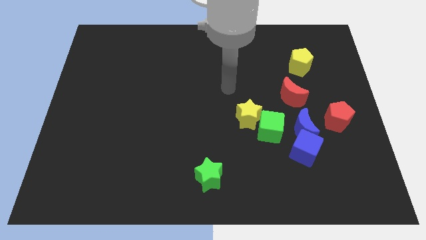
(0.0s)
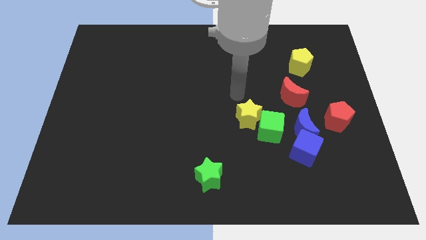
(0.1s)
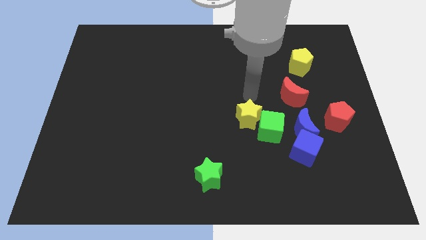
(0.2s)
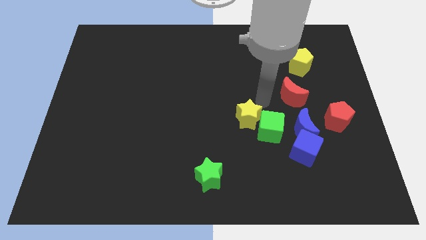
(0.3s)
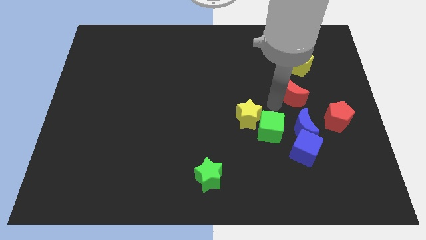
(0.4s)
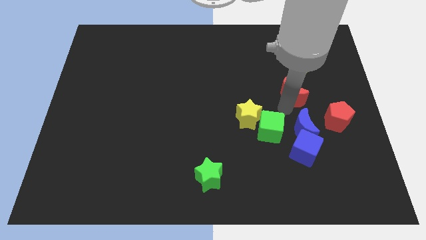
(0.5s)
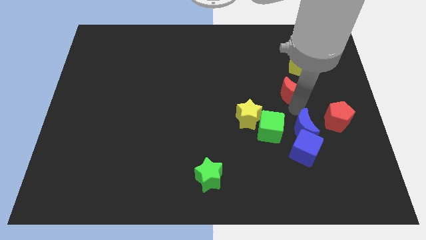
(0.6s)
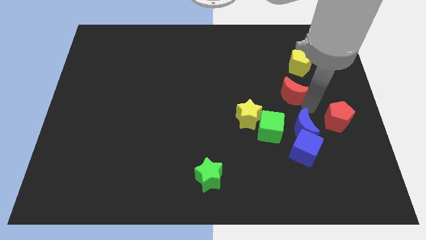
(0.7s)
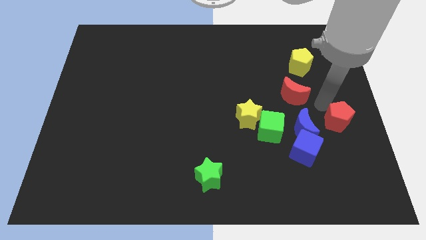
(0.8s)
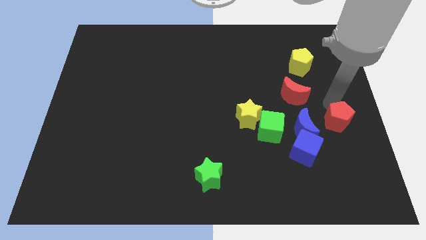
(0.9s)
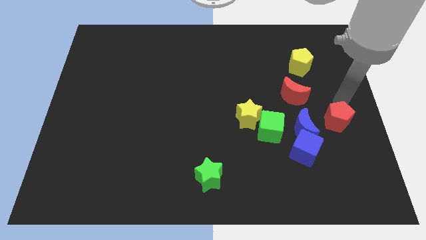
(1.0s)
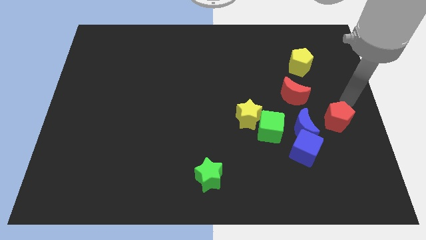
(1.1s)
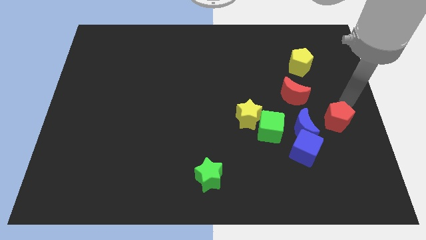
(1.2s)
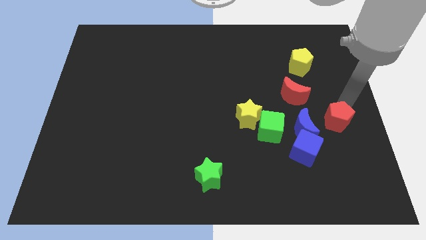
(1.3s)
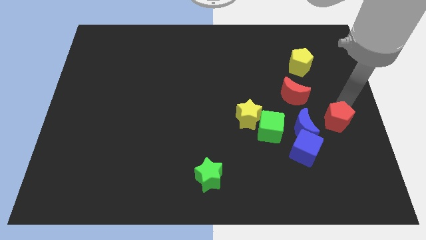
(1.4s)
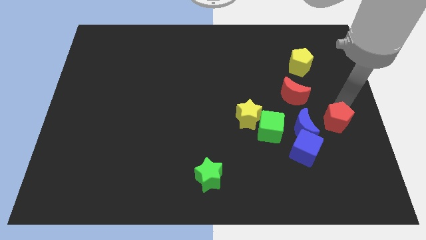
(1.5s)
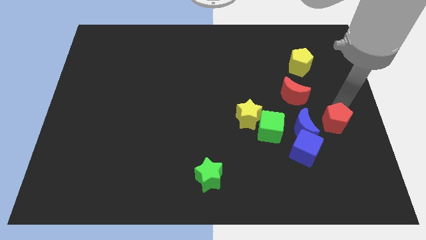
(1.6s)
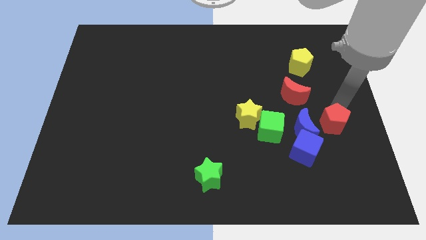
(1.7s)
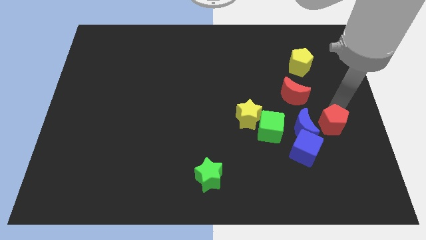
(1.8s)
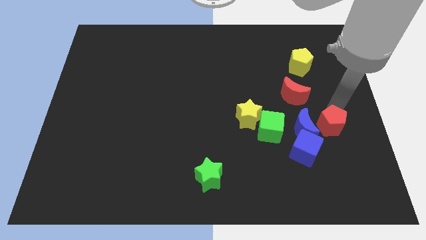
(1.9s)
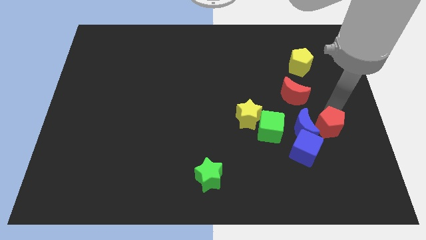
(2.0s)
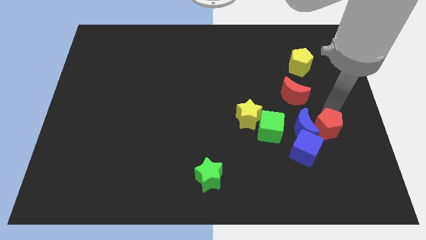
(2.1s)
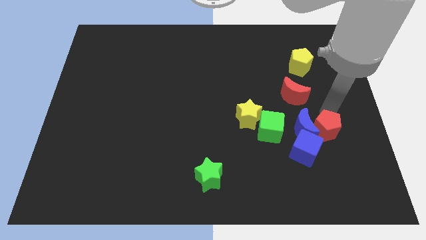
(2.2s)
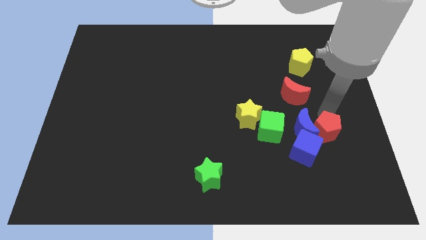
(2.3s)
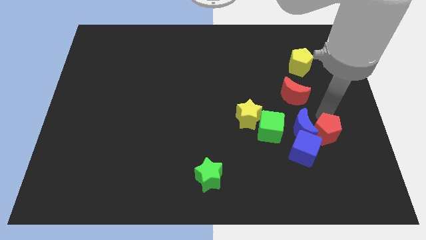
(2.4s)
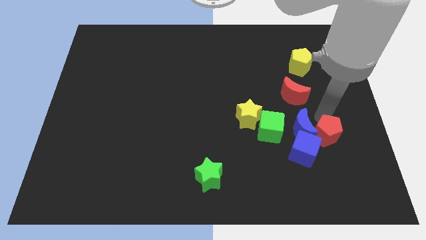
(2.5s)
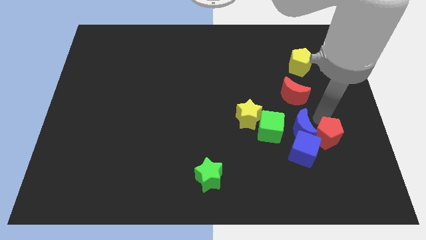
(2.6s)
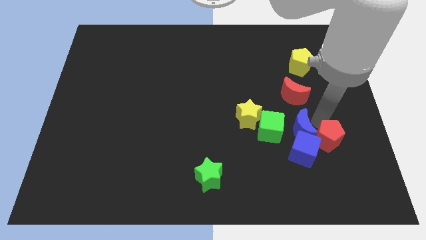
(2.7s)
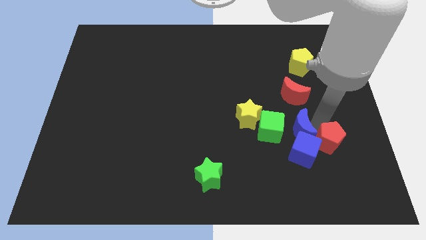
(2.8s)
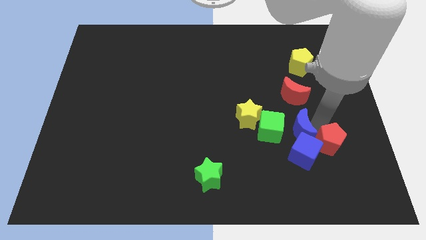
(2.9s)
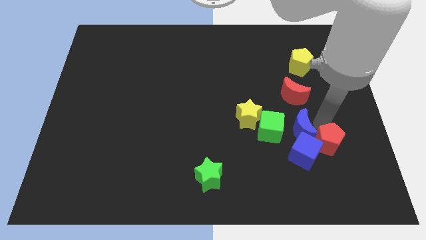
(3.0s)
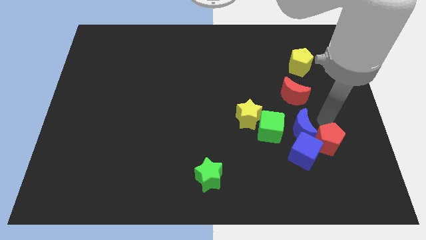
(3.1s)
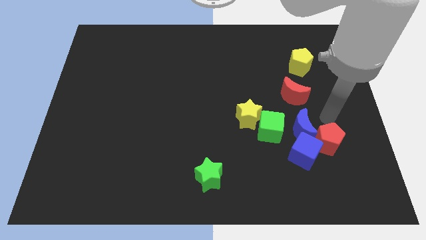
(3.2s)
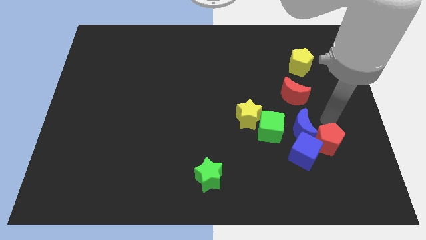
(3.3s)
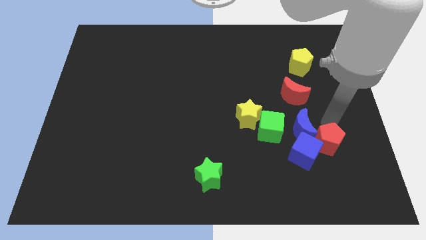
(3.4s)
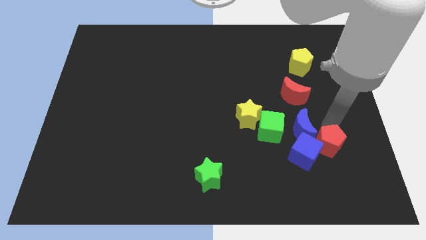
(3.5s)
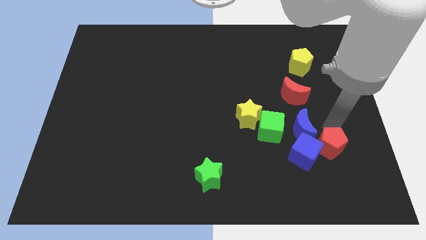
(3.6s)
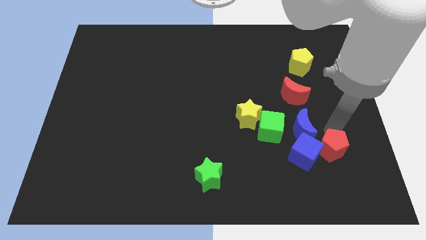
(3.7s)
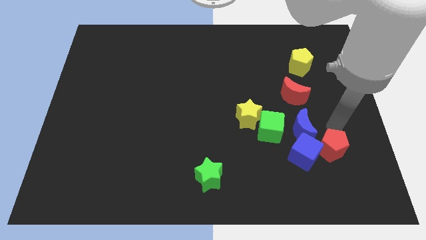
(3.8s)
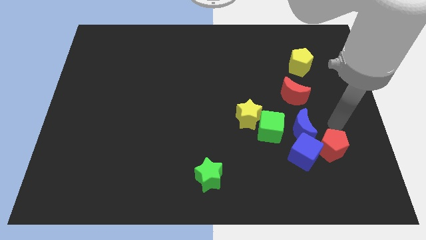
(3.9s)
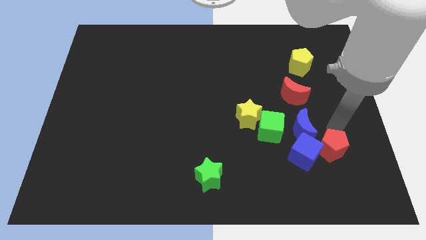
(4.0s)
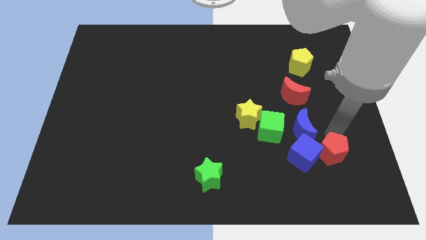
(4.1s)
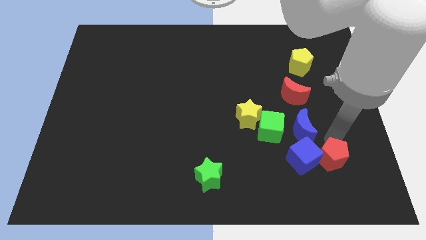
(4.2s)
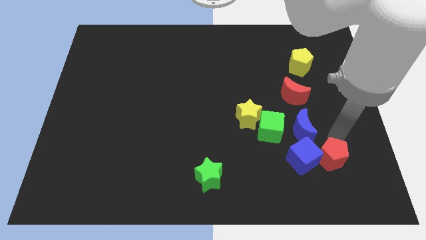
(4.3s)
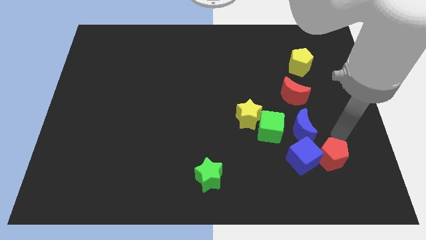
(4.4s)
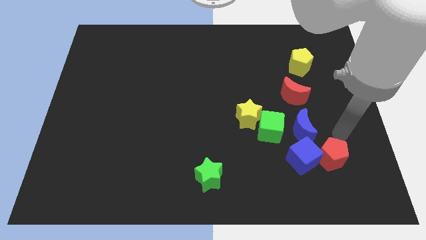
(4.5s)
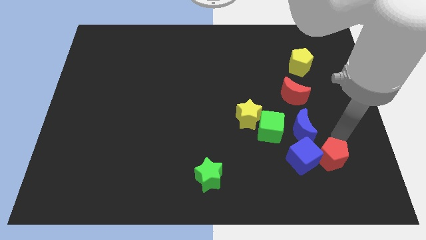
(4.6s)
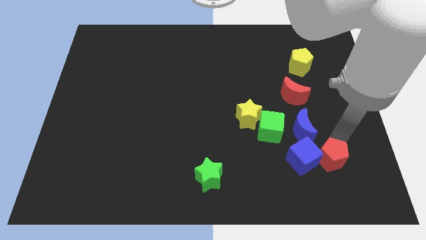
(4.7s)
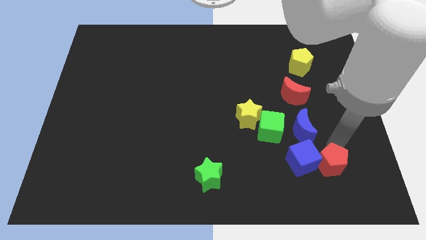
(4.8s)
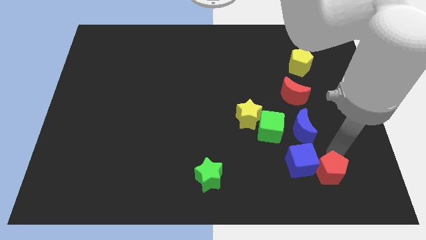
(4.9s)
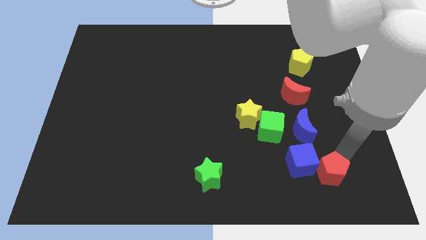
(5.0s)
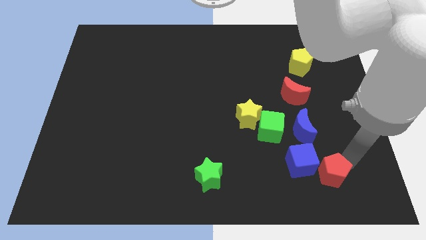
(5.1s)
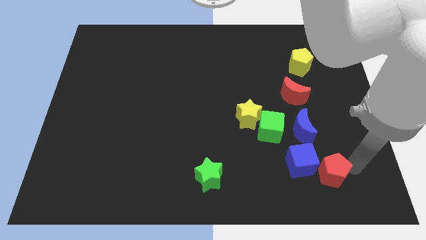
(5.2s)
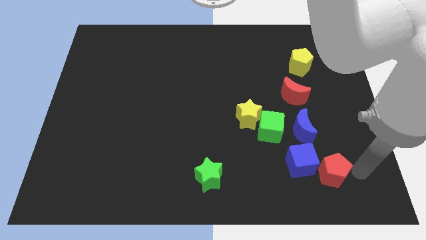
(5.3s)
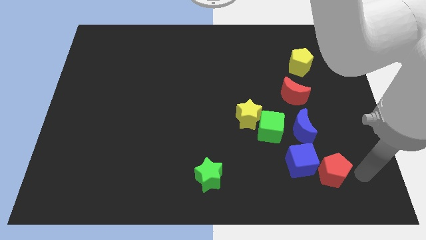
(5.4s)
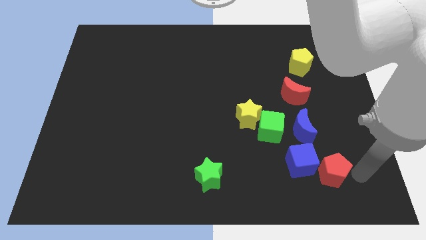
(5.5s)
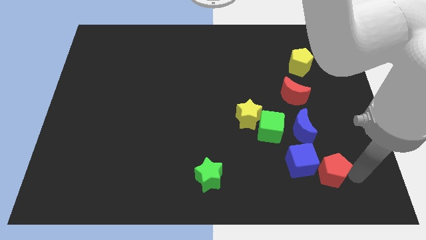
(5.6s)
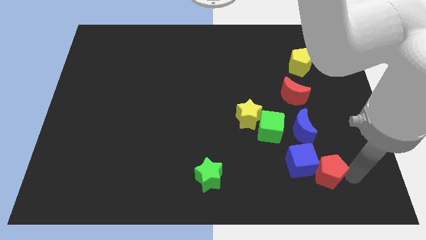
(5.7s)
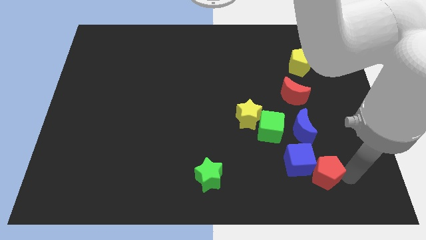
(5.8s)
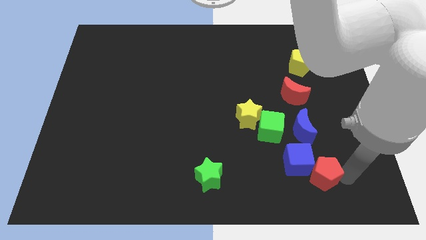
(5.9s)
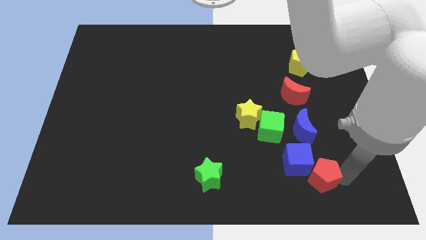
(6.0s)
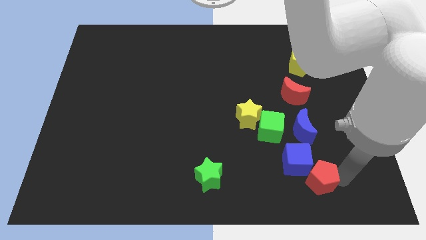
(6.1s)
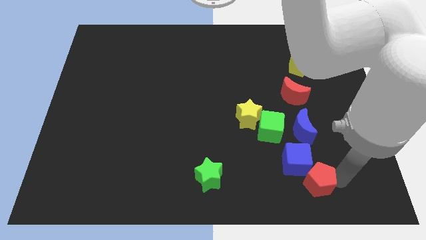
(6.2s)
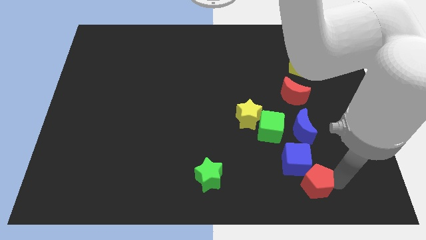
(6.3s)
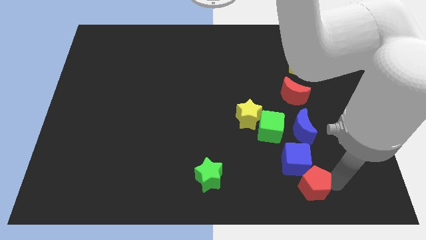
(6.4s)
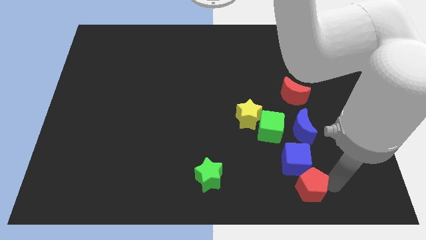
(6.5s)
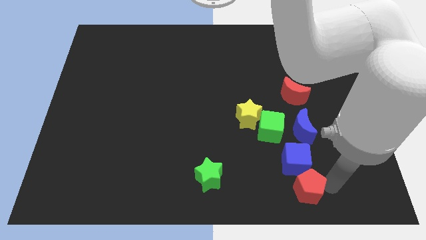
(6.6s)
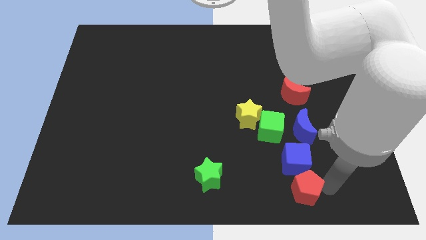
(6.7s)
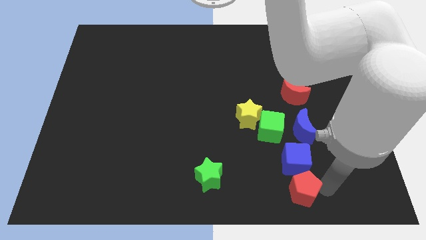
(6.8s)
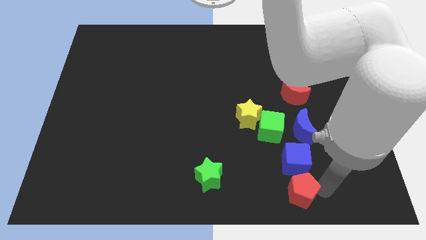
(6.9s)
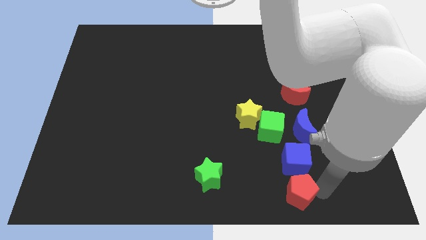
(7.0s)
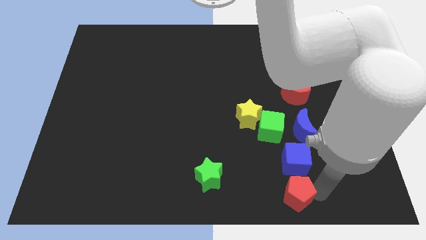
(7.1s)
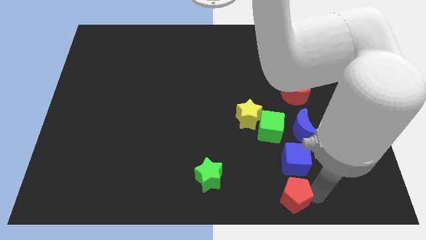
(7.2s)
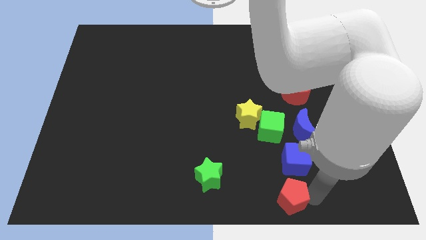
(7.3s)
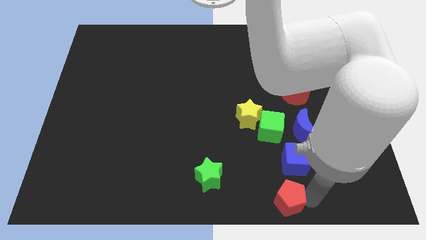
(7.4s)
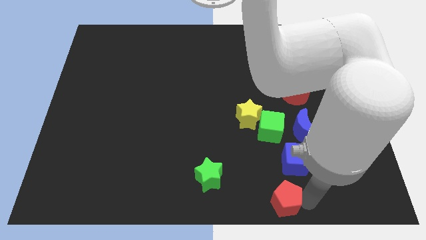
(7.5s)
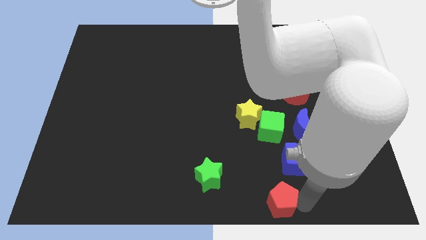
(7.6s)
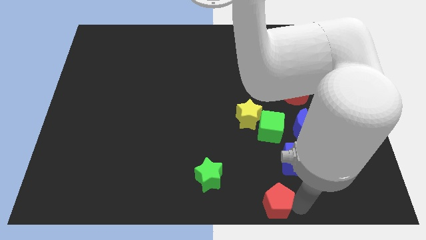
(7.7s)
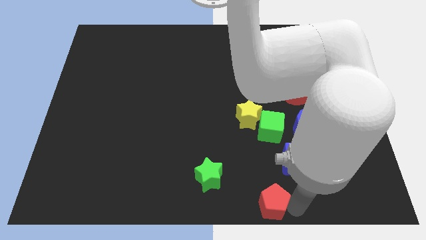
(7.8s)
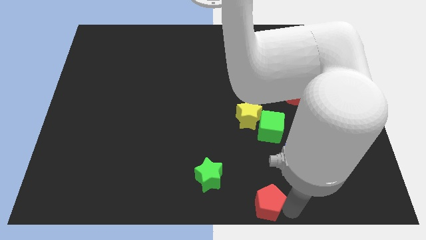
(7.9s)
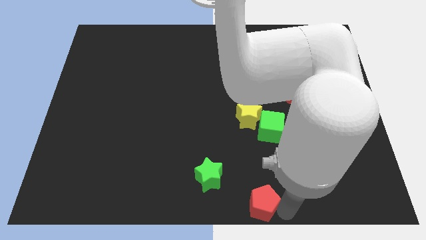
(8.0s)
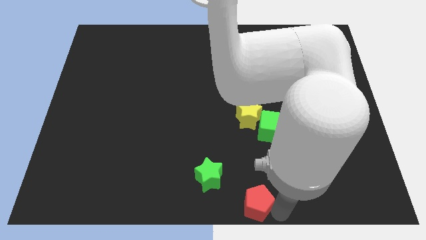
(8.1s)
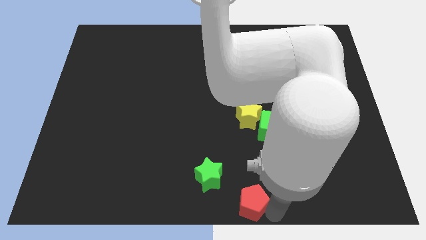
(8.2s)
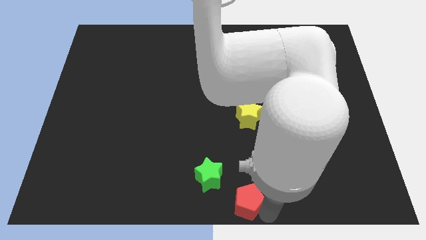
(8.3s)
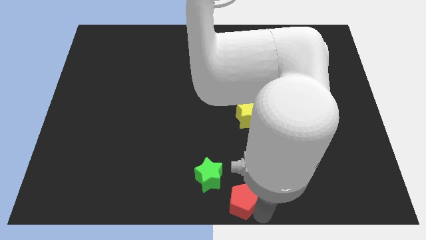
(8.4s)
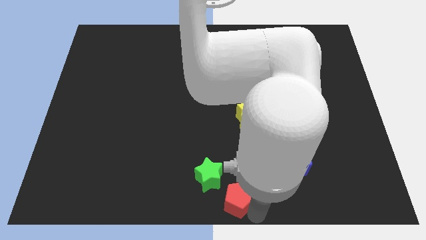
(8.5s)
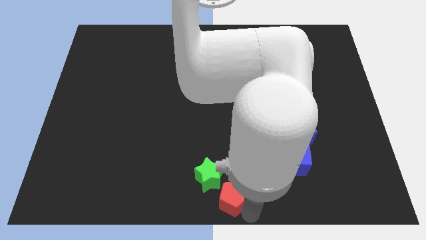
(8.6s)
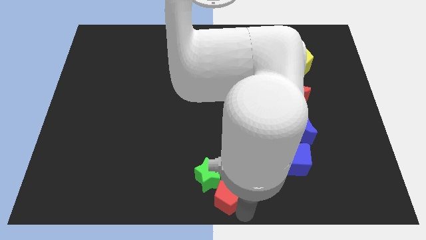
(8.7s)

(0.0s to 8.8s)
move the red pentagon next to the green star
